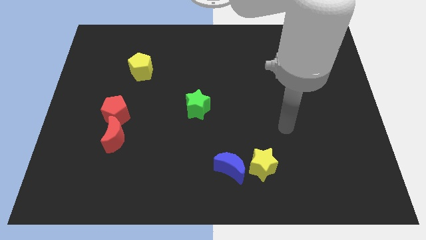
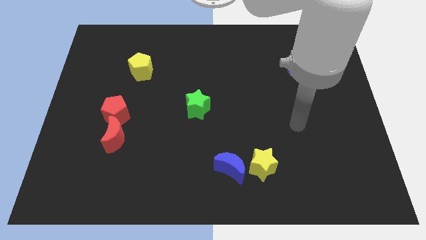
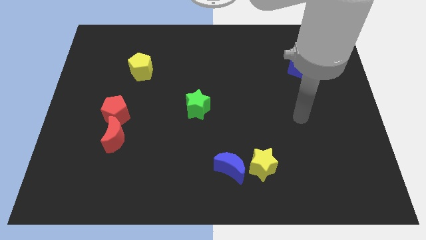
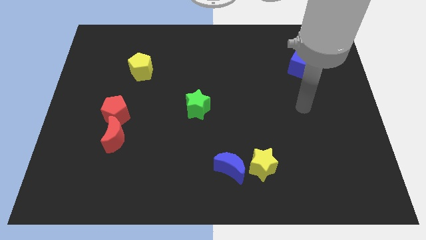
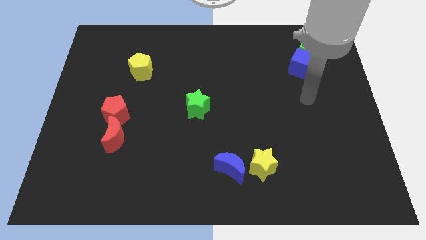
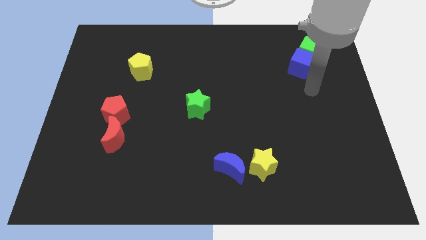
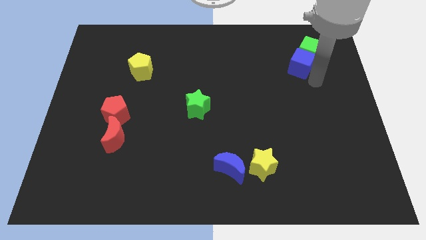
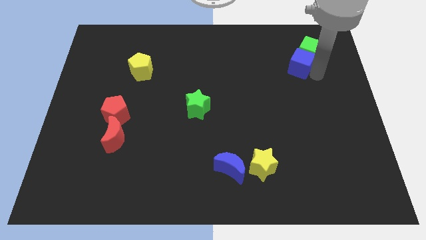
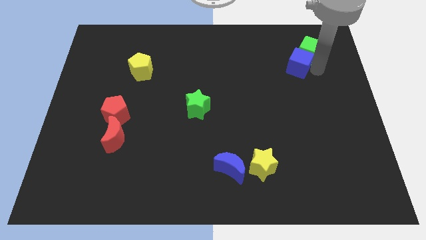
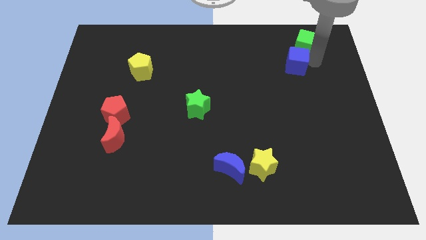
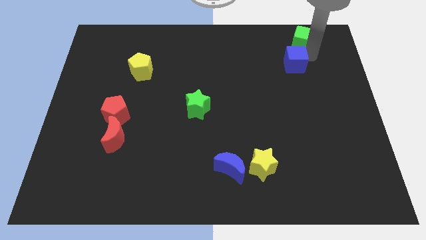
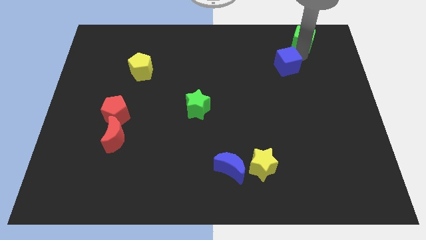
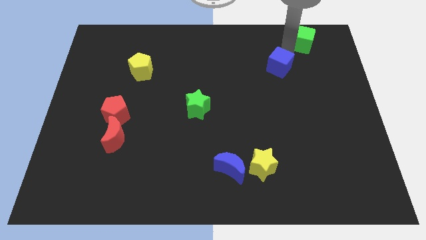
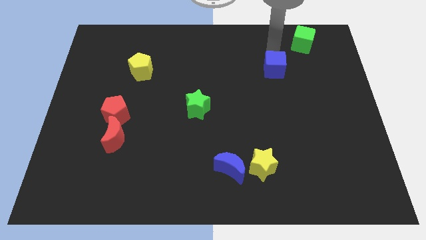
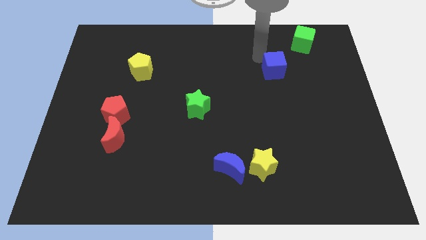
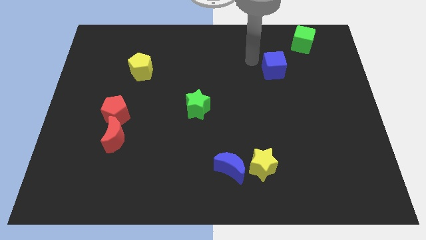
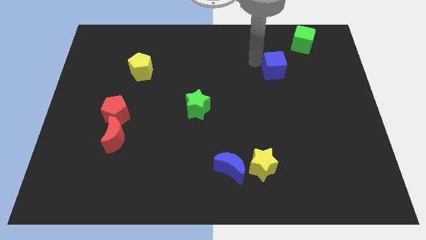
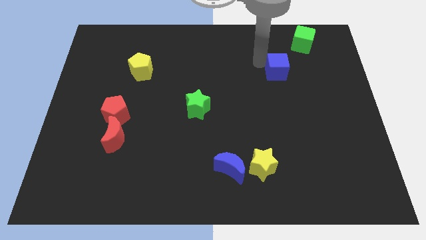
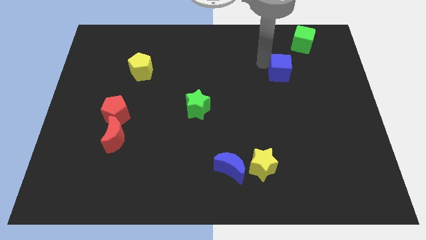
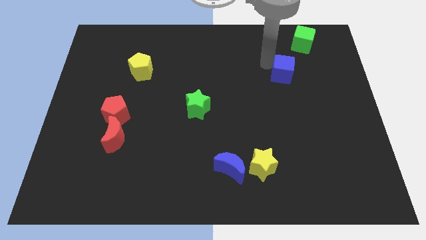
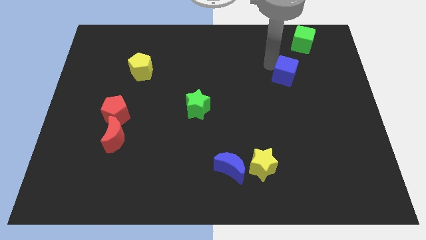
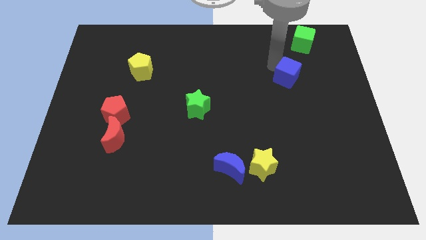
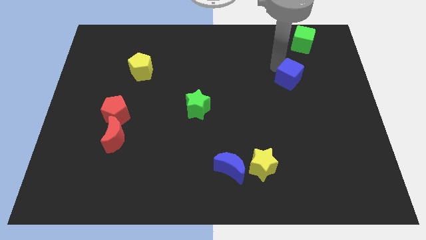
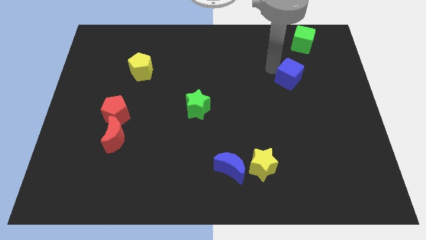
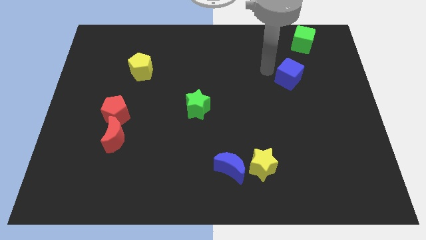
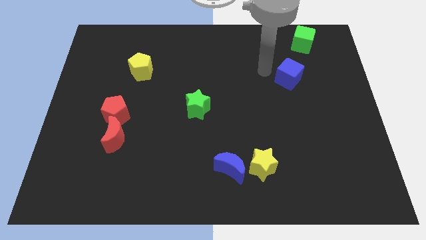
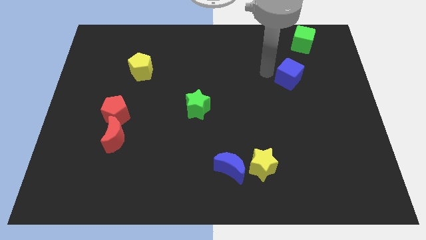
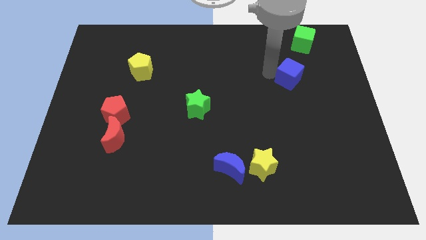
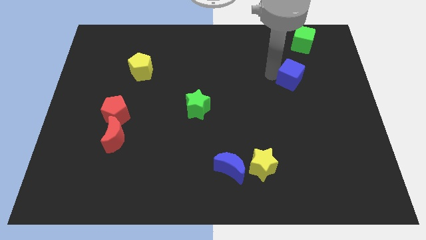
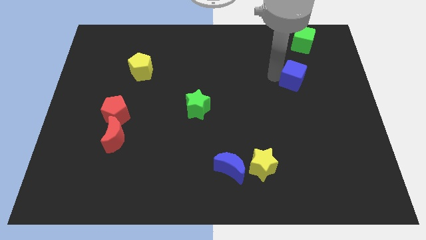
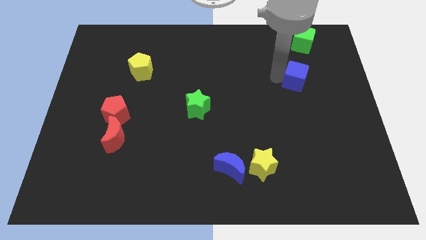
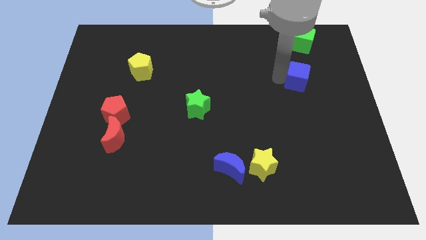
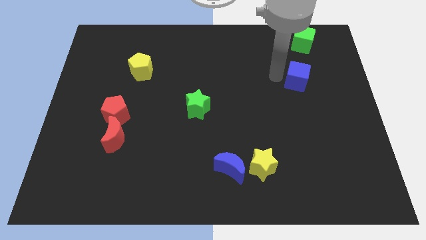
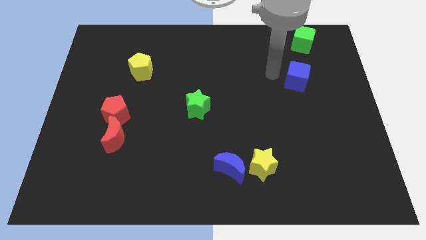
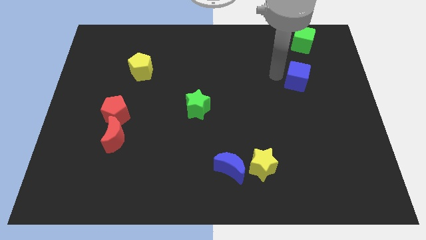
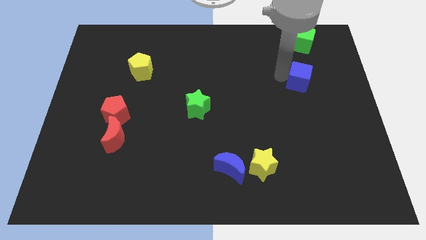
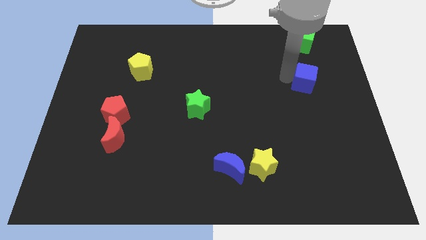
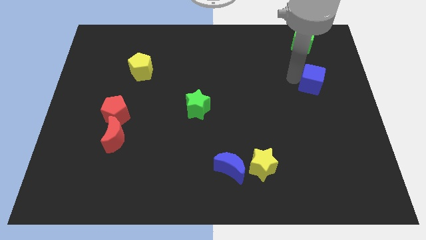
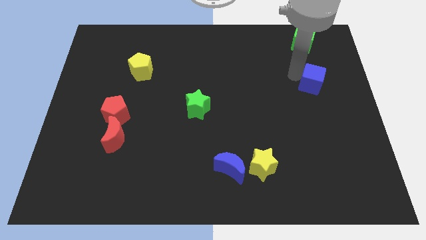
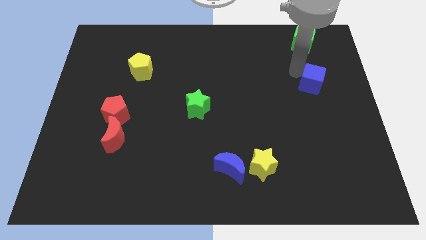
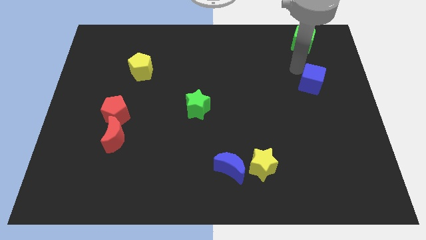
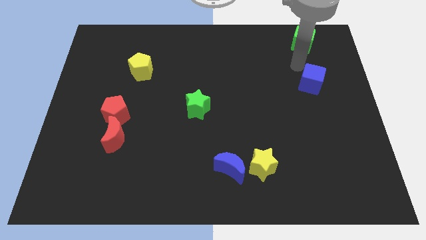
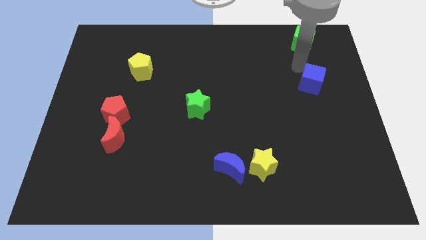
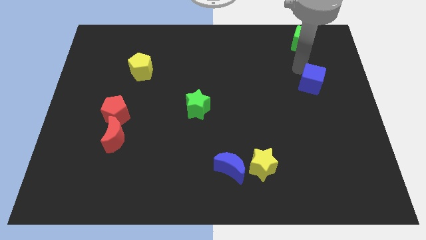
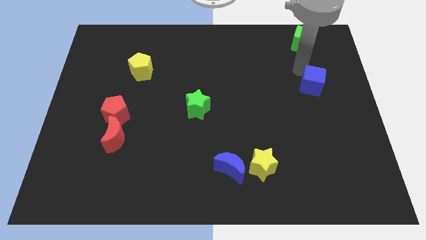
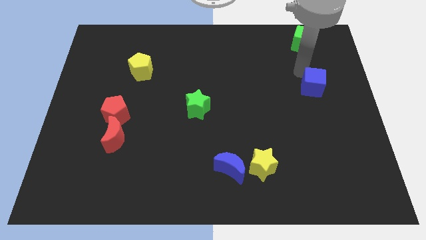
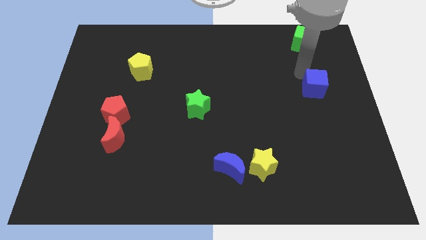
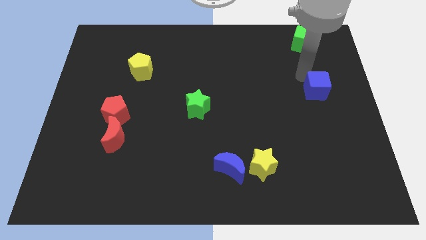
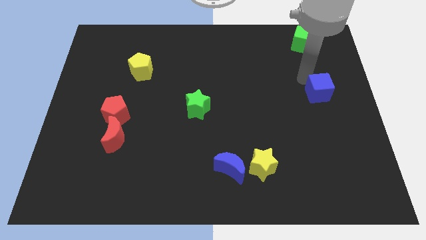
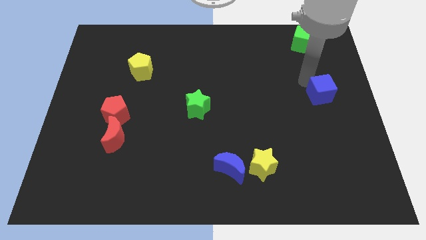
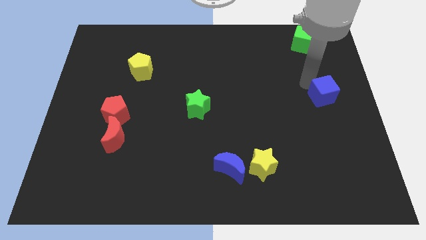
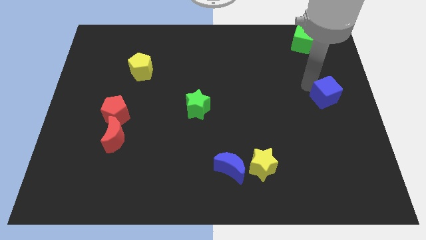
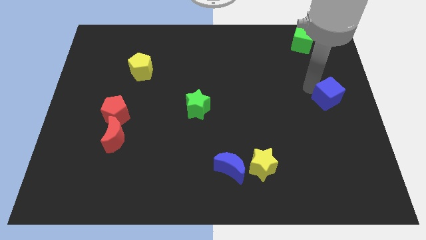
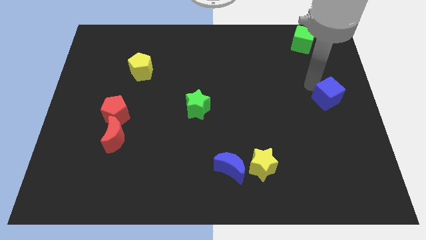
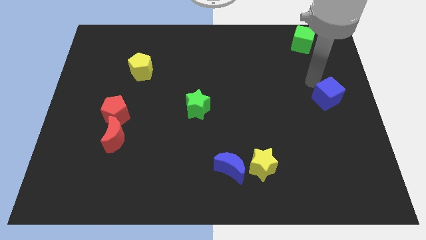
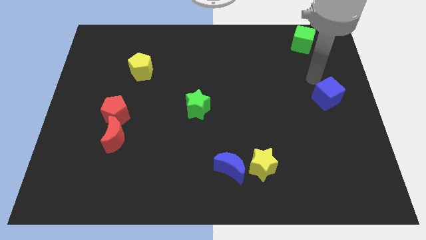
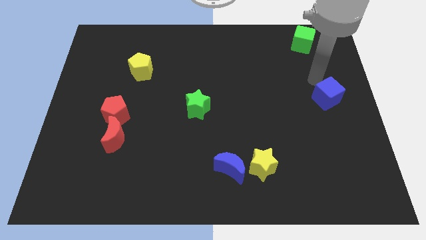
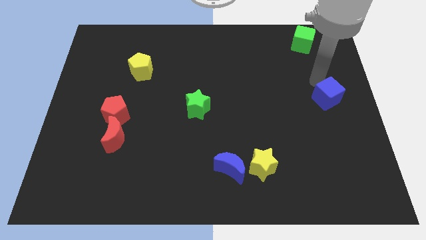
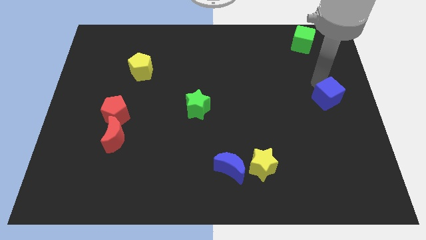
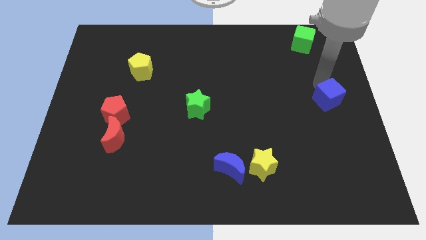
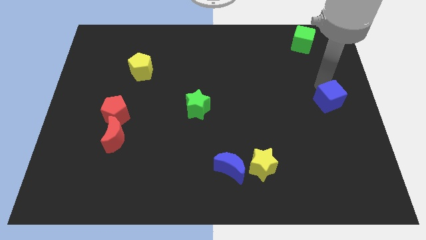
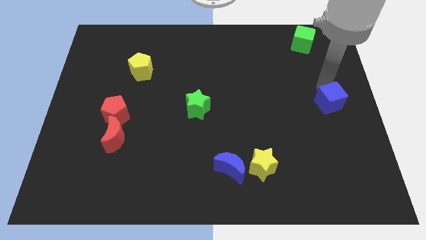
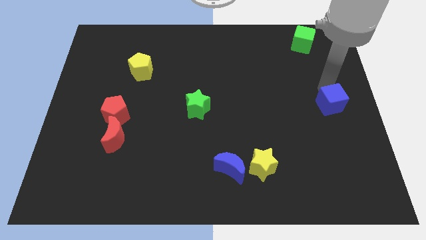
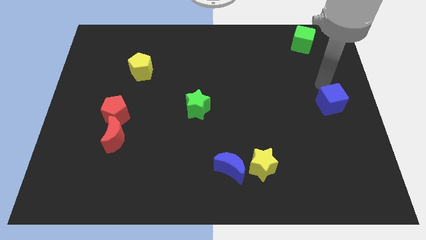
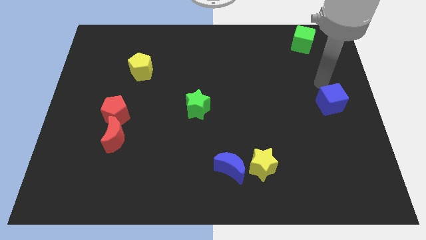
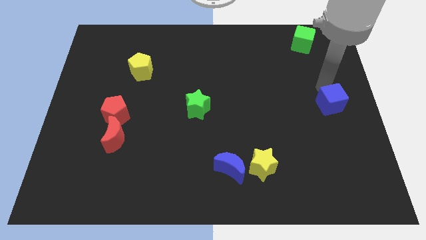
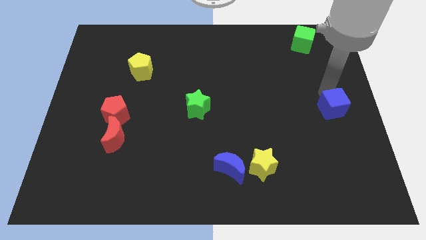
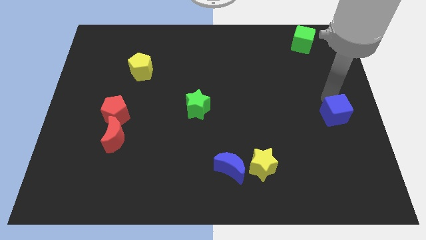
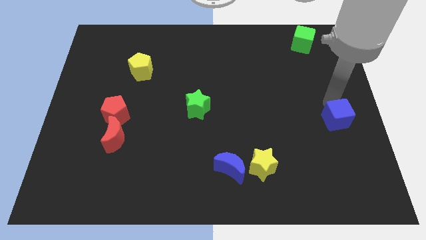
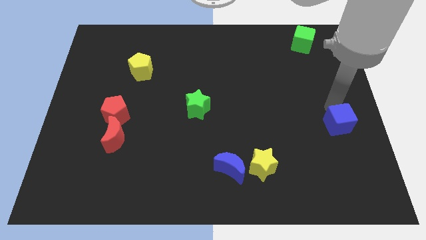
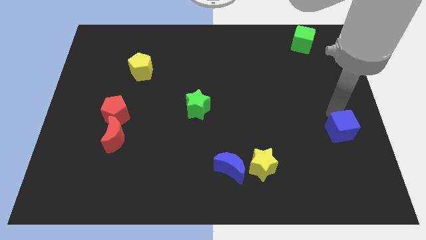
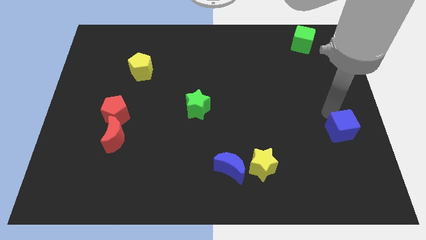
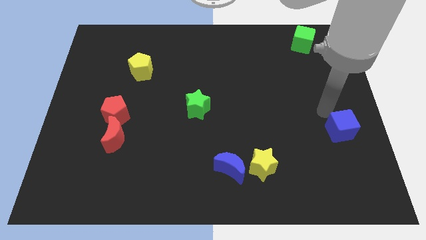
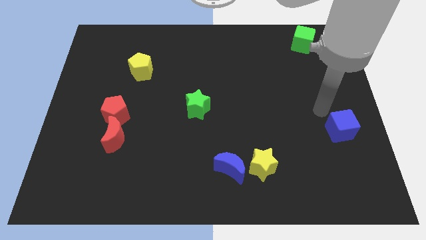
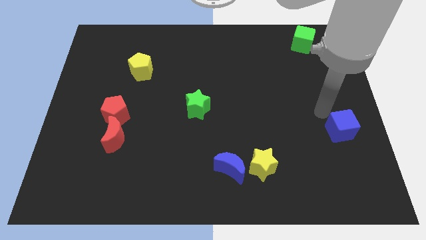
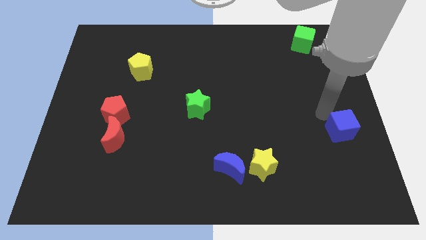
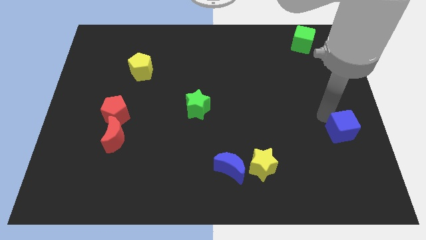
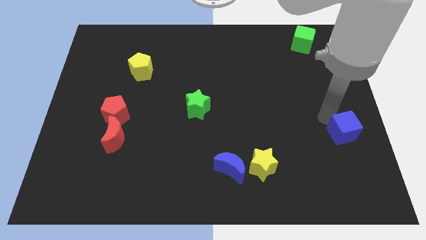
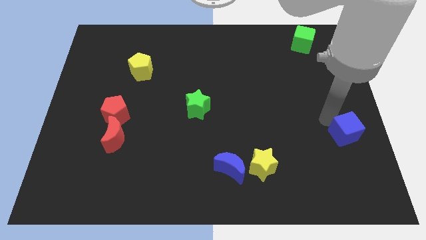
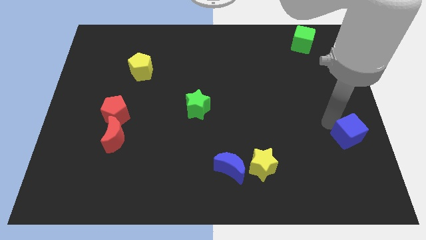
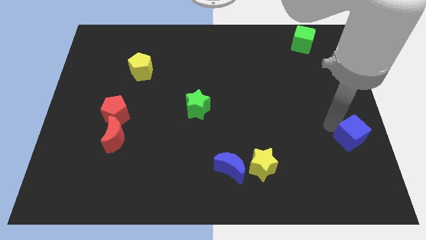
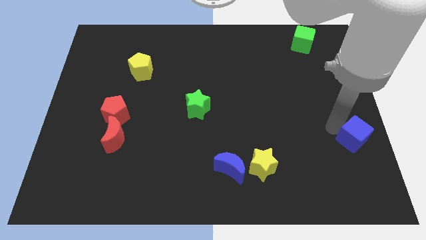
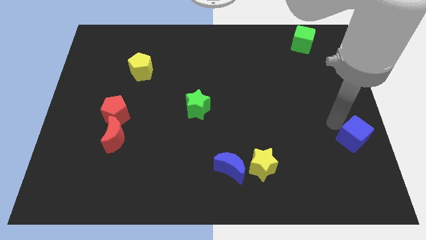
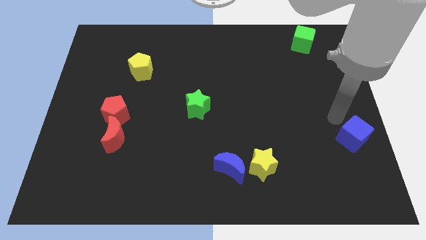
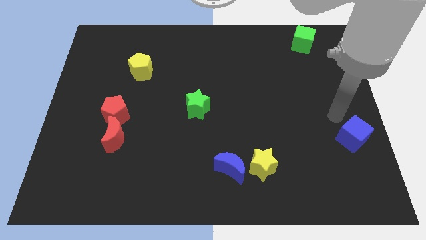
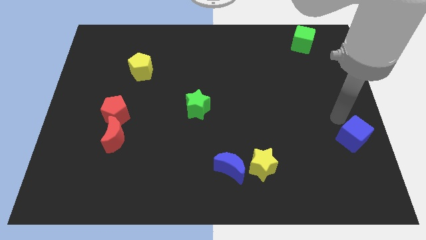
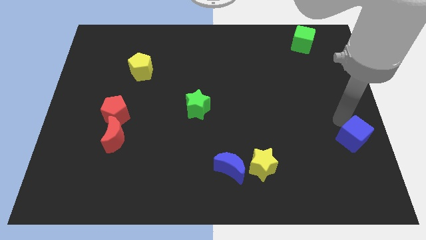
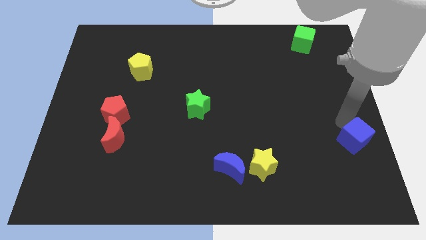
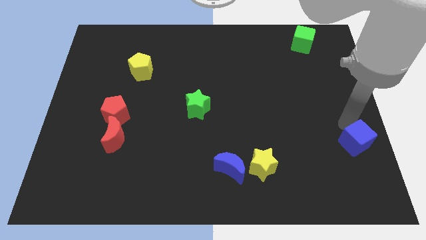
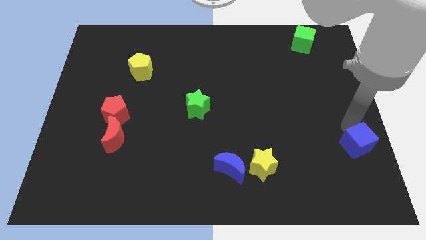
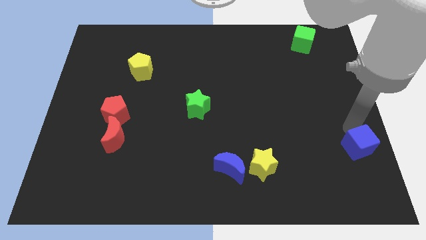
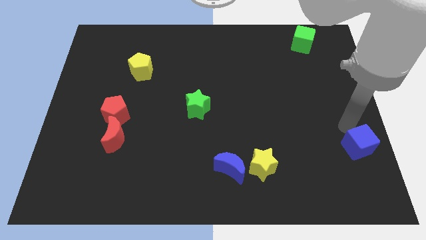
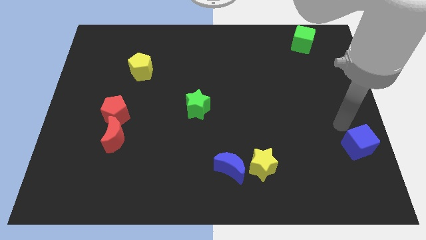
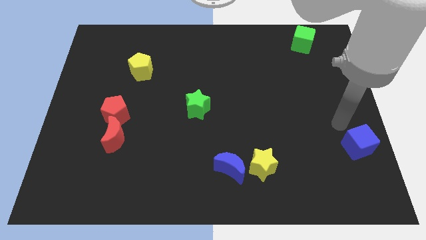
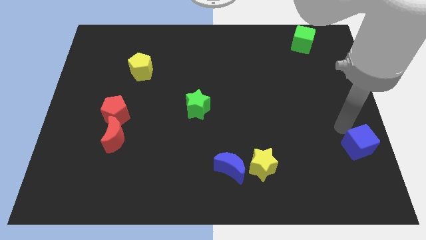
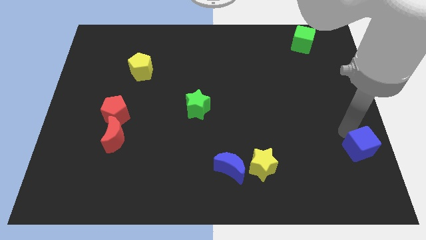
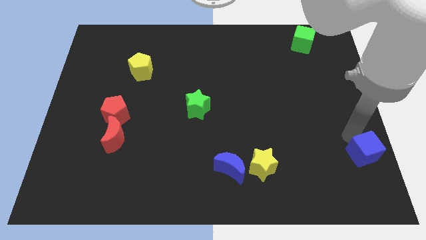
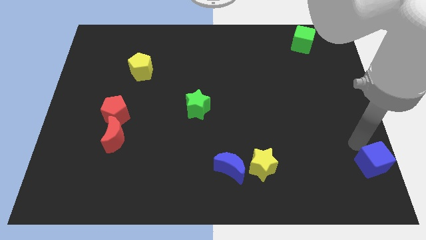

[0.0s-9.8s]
put the blue cube to the bottom right of the board
